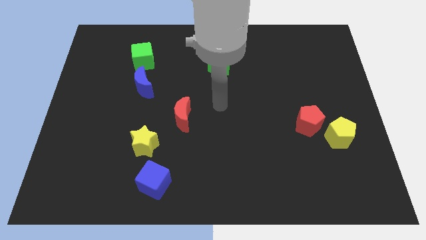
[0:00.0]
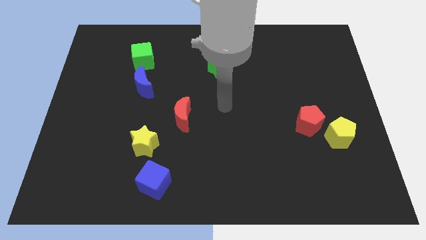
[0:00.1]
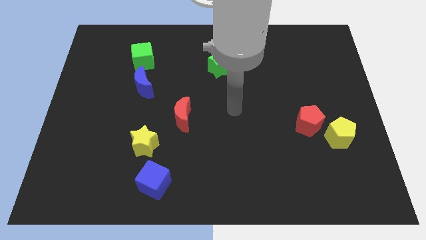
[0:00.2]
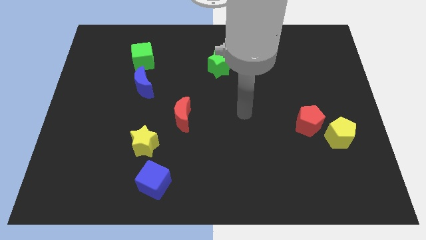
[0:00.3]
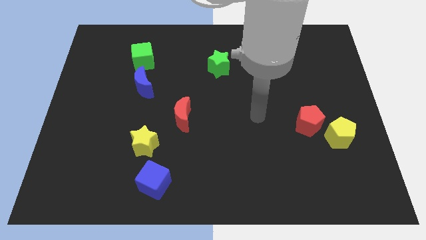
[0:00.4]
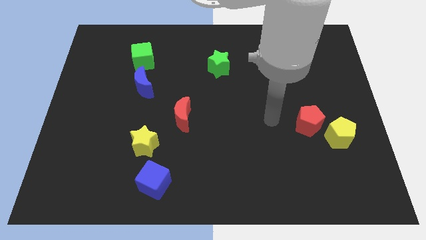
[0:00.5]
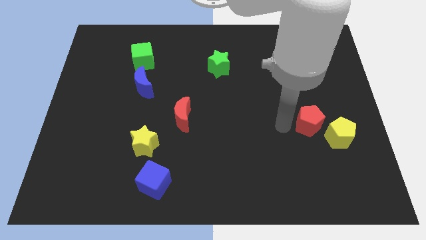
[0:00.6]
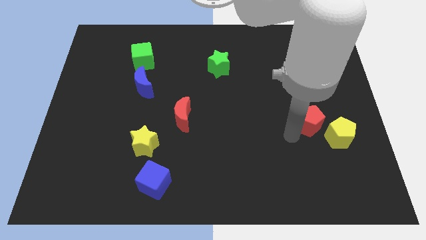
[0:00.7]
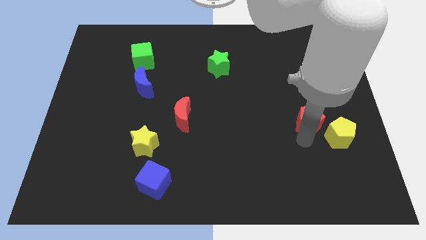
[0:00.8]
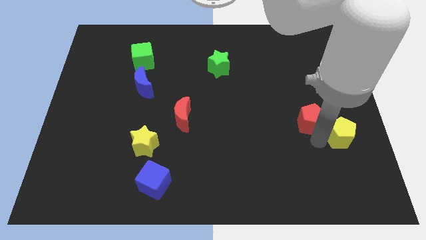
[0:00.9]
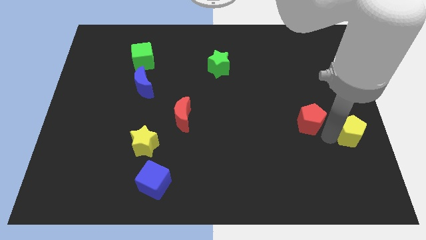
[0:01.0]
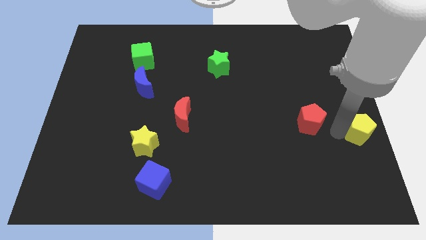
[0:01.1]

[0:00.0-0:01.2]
pull the red pentagon apart from the yellow pentagon

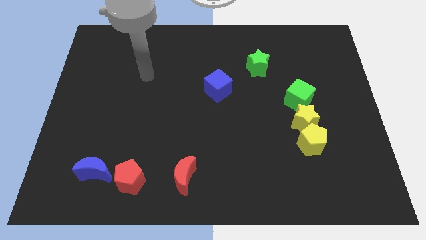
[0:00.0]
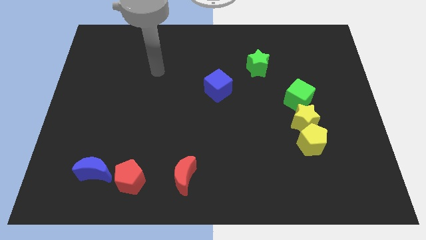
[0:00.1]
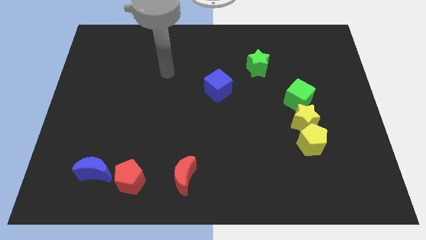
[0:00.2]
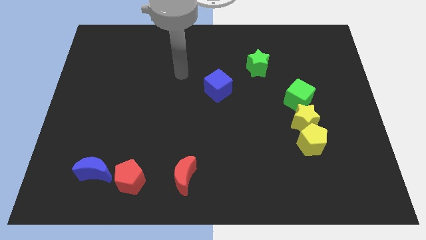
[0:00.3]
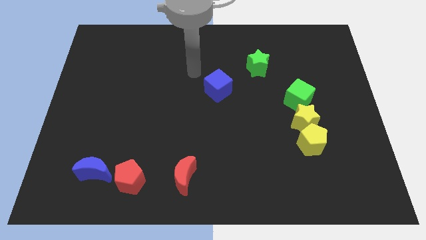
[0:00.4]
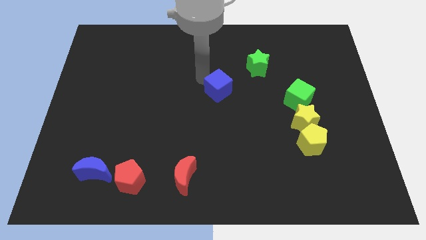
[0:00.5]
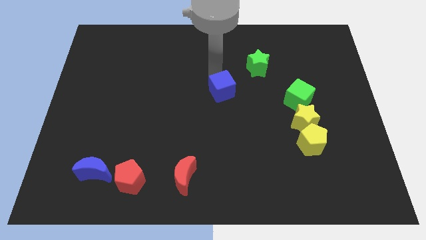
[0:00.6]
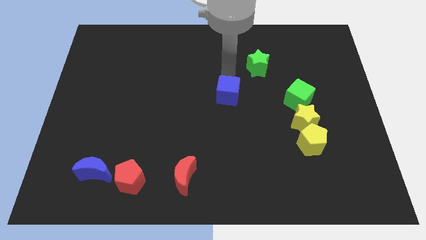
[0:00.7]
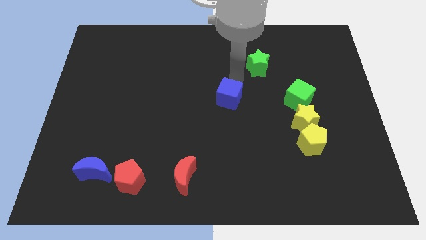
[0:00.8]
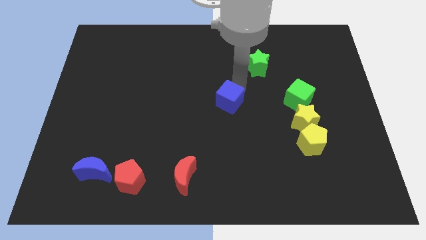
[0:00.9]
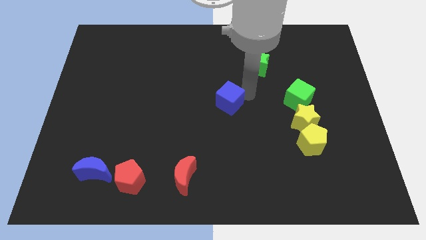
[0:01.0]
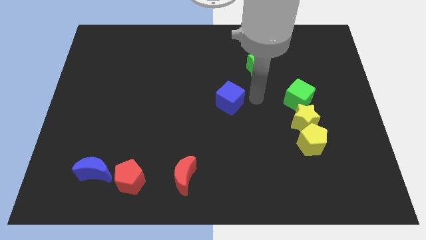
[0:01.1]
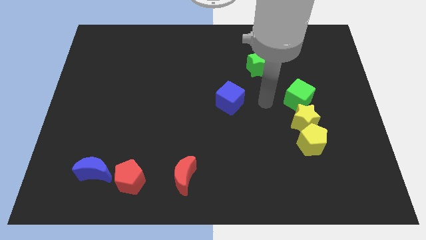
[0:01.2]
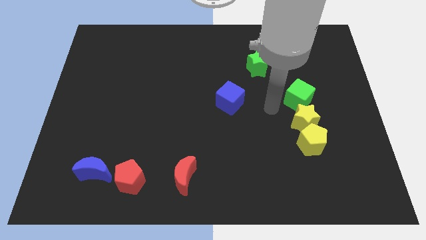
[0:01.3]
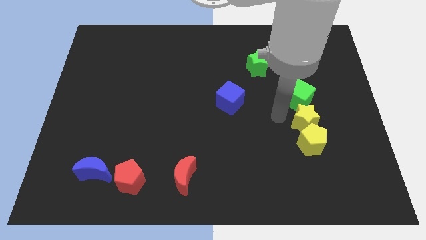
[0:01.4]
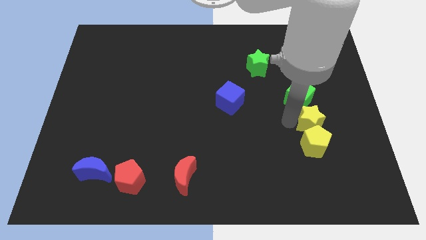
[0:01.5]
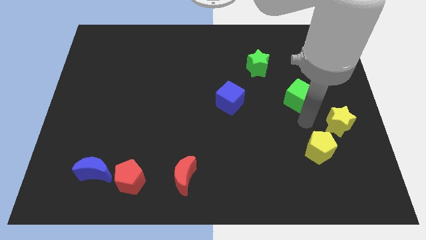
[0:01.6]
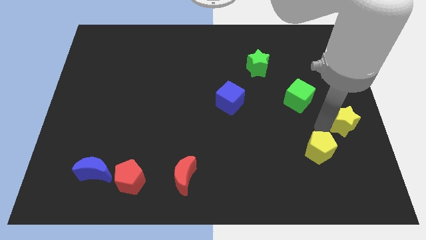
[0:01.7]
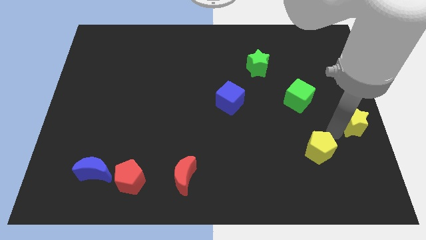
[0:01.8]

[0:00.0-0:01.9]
separate the yellow pentagon from the yellow star

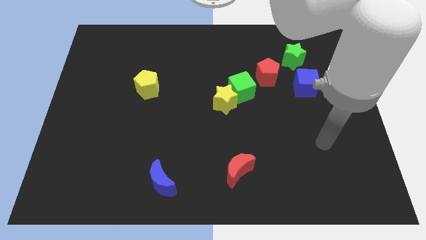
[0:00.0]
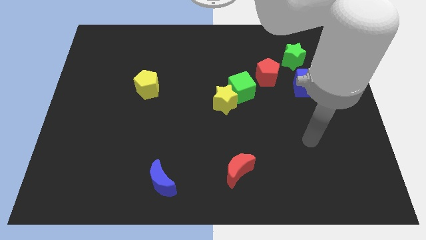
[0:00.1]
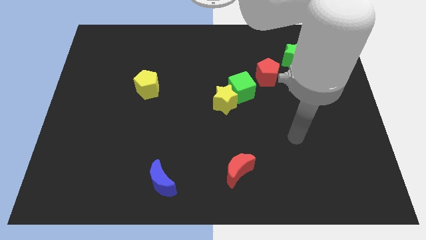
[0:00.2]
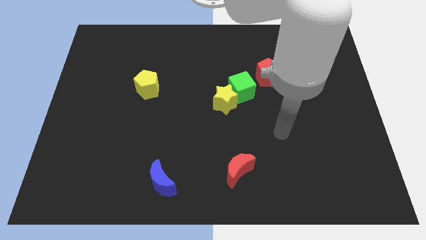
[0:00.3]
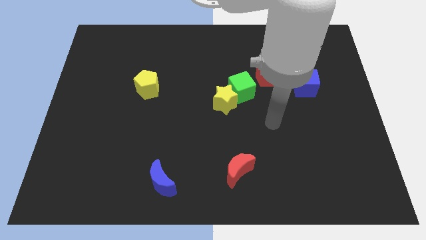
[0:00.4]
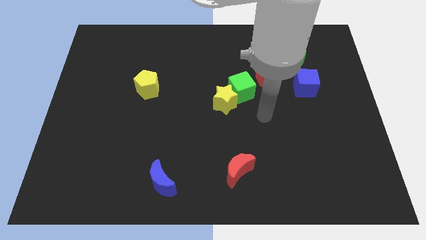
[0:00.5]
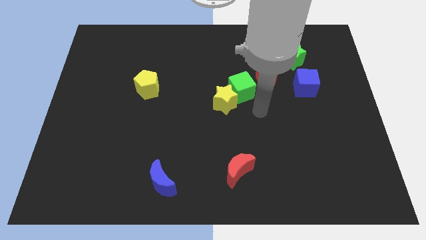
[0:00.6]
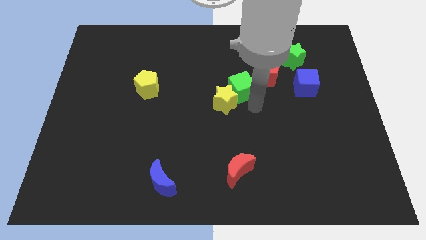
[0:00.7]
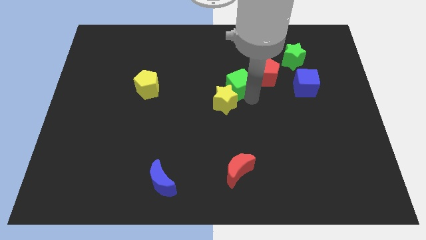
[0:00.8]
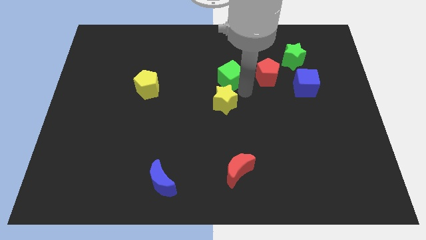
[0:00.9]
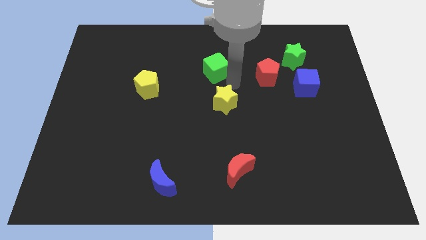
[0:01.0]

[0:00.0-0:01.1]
move the yellow star away from the green cube

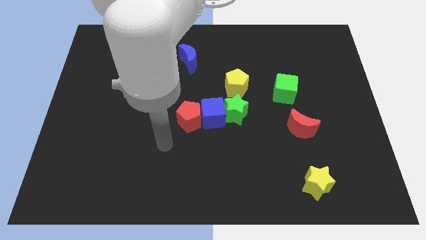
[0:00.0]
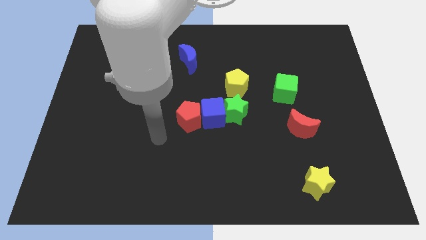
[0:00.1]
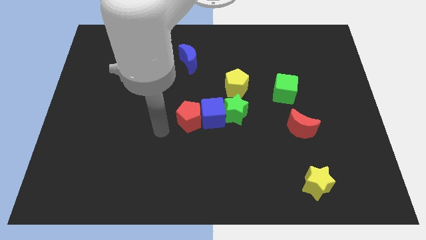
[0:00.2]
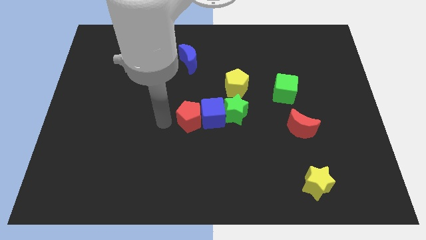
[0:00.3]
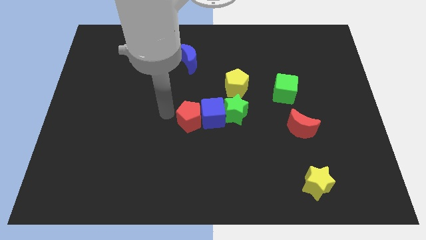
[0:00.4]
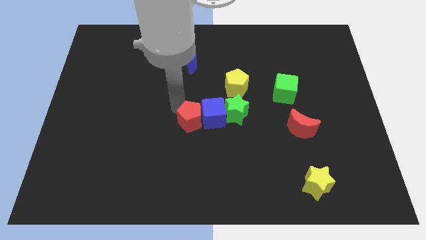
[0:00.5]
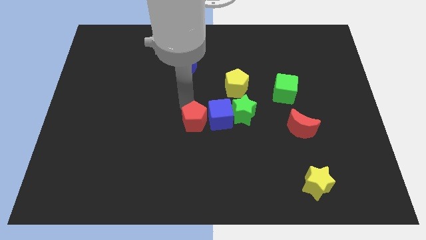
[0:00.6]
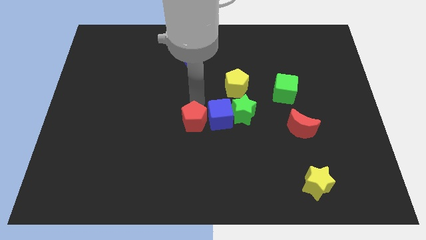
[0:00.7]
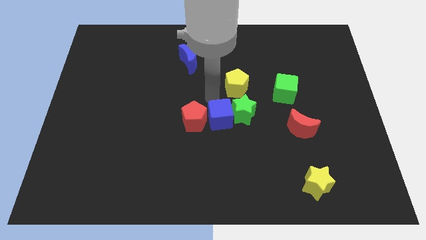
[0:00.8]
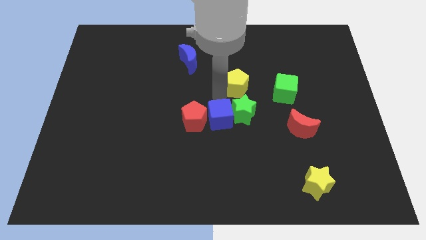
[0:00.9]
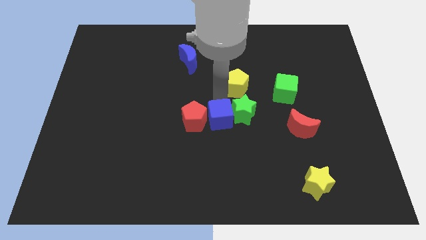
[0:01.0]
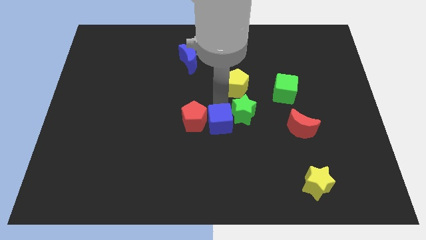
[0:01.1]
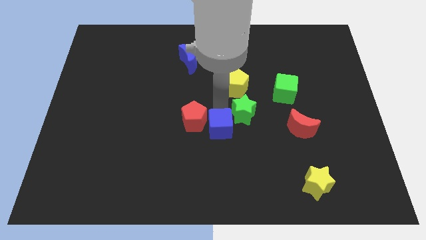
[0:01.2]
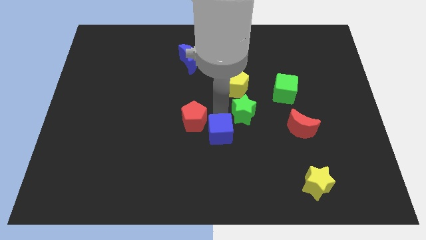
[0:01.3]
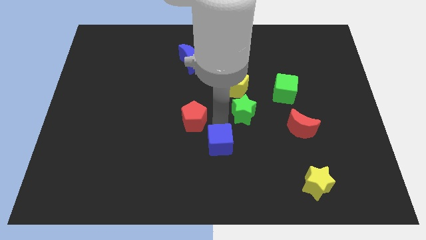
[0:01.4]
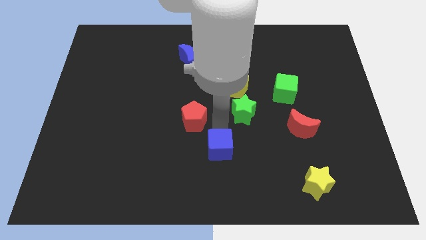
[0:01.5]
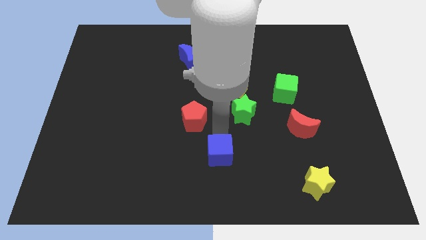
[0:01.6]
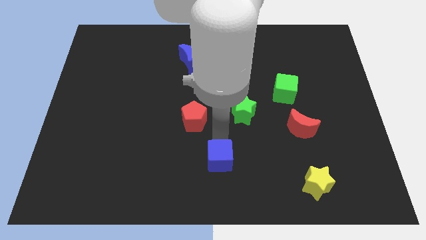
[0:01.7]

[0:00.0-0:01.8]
move the blue cube away from the green star and red pentagon

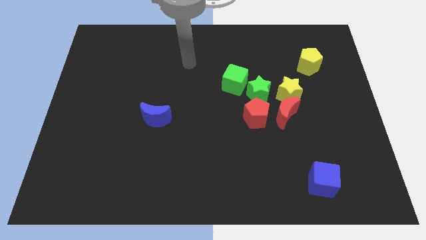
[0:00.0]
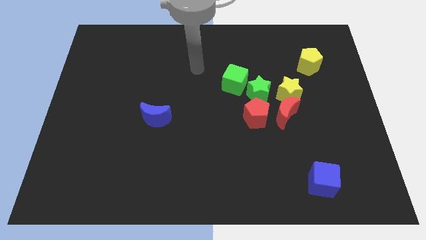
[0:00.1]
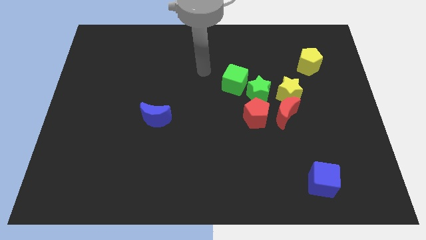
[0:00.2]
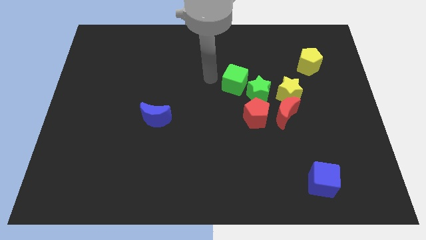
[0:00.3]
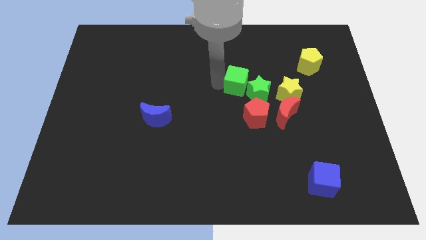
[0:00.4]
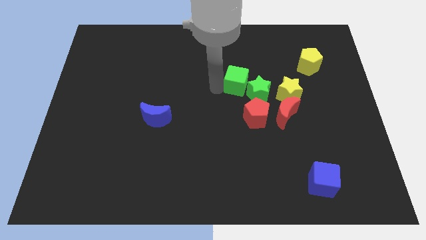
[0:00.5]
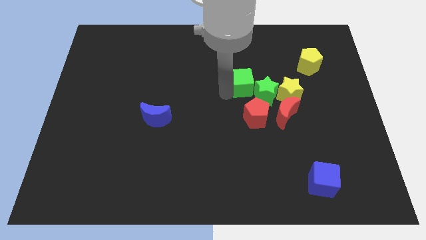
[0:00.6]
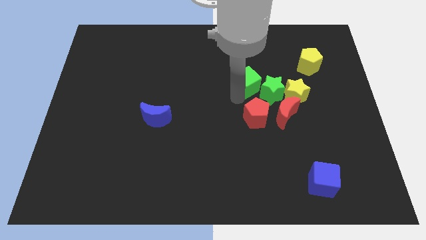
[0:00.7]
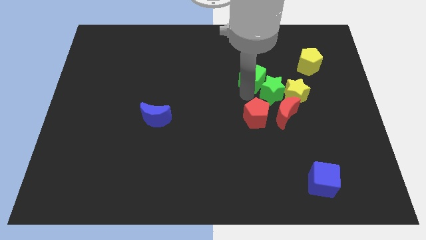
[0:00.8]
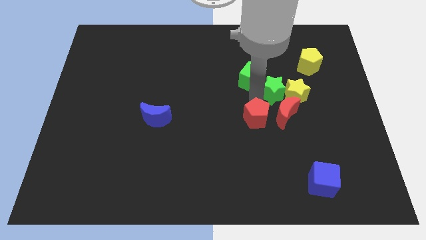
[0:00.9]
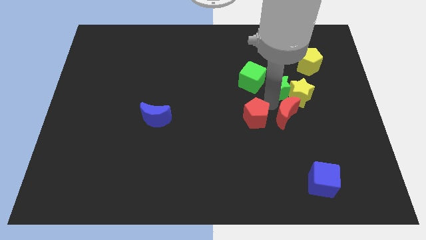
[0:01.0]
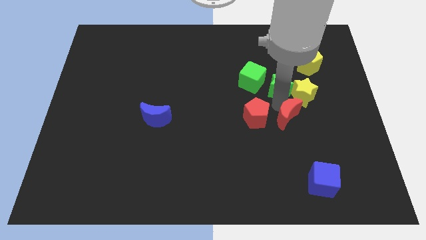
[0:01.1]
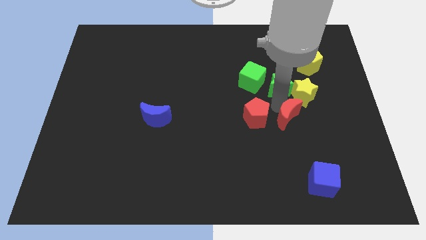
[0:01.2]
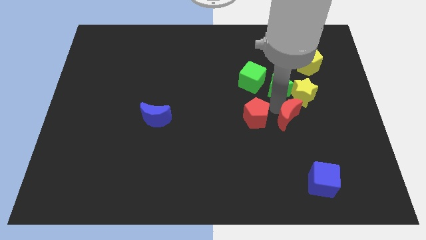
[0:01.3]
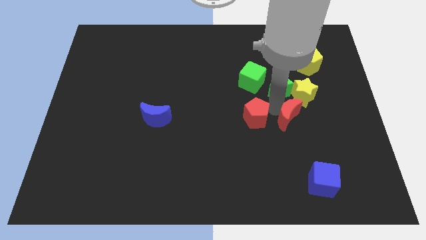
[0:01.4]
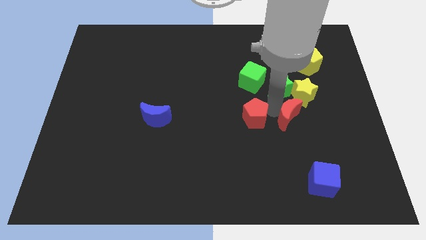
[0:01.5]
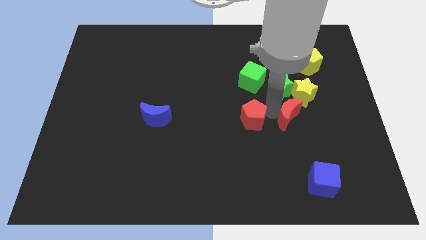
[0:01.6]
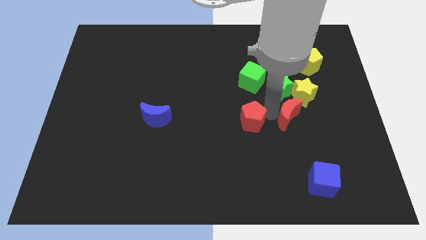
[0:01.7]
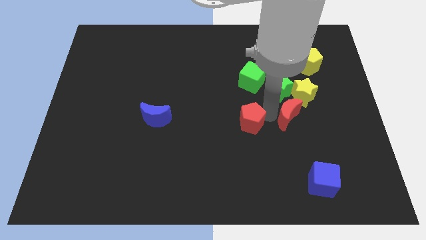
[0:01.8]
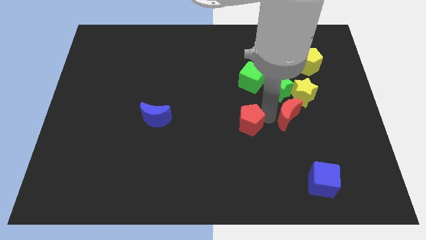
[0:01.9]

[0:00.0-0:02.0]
move the red pentagon away from the red moon and green star

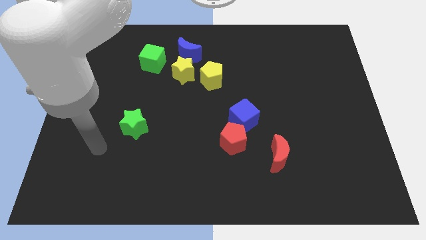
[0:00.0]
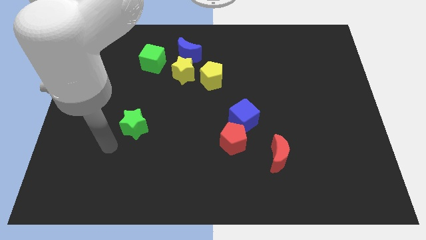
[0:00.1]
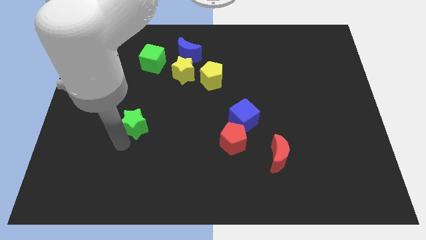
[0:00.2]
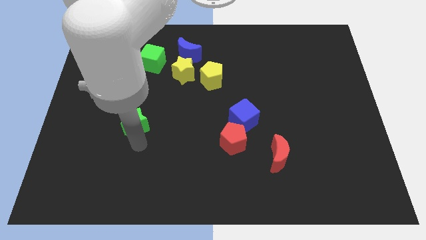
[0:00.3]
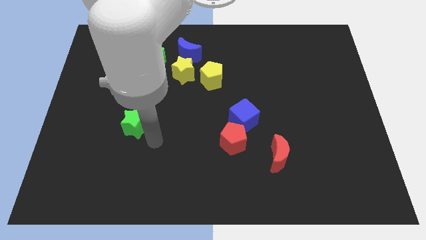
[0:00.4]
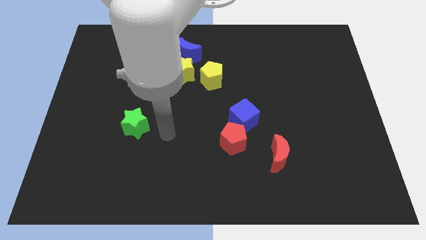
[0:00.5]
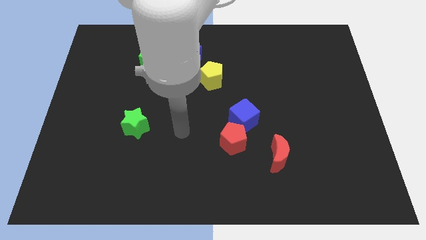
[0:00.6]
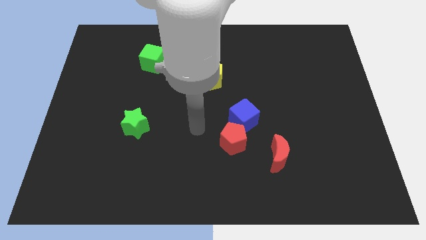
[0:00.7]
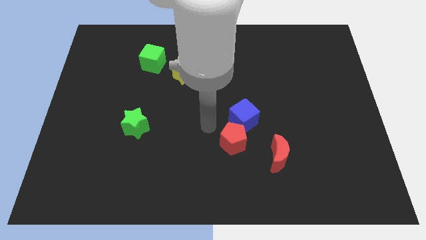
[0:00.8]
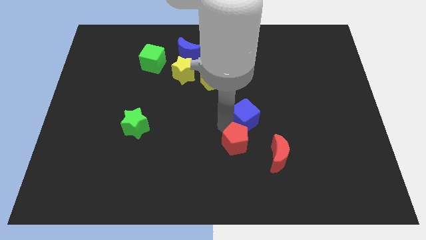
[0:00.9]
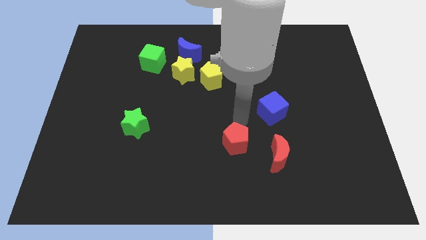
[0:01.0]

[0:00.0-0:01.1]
separate the red pentagon from the blue cube

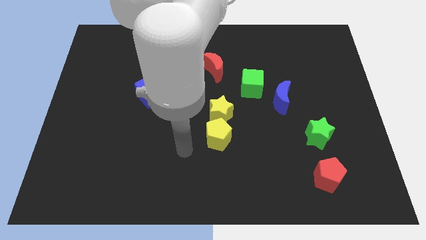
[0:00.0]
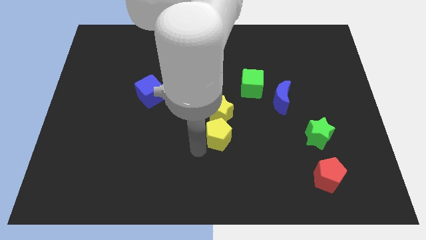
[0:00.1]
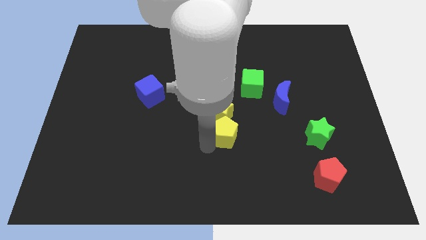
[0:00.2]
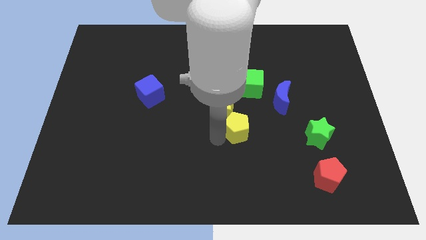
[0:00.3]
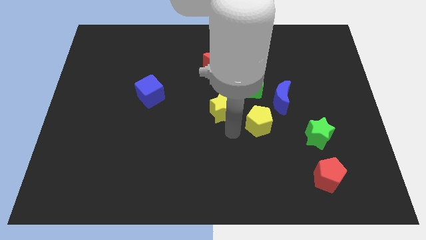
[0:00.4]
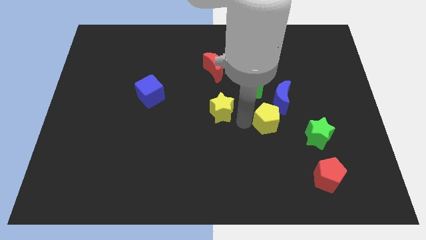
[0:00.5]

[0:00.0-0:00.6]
separate the yellow star from the yellow pentagon
